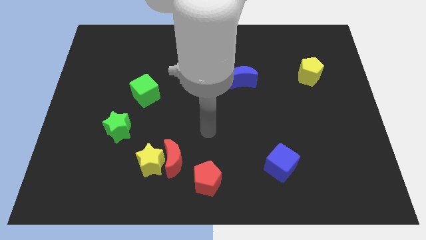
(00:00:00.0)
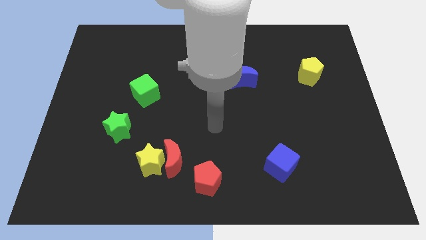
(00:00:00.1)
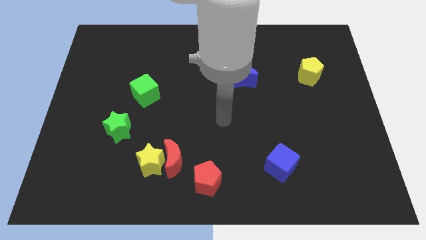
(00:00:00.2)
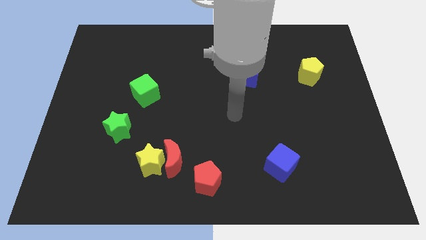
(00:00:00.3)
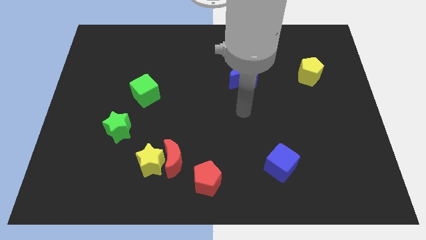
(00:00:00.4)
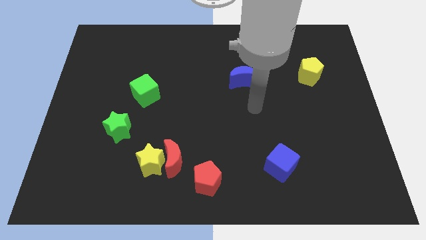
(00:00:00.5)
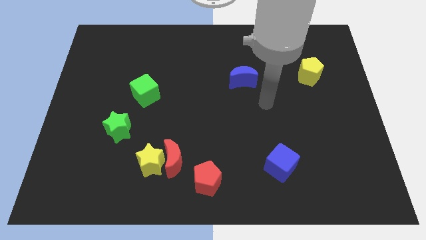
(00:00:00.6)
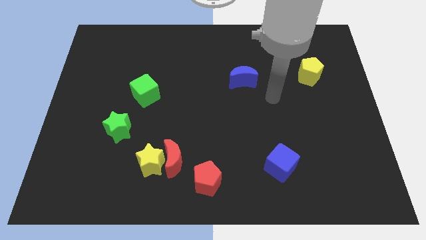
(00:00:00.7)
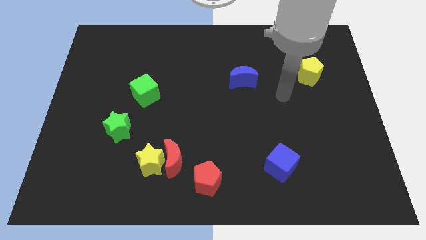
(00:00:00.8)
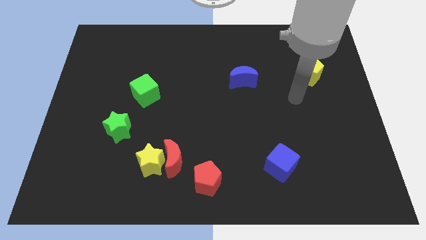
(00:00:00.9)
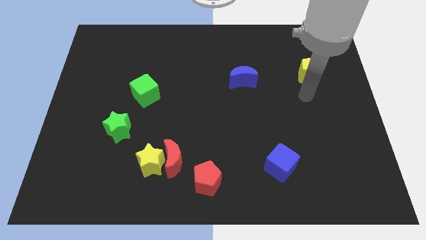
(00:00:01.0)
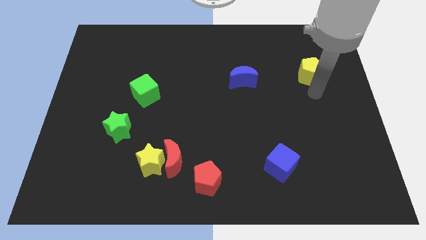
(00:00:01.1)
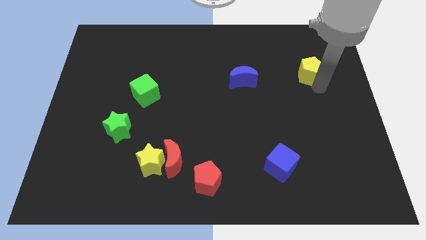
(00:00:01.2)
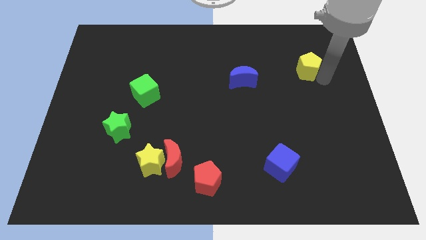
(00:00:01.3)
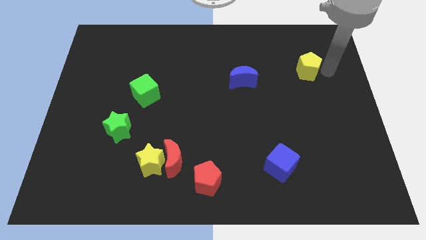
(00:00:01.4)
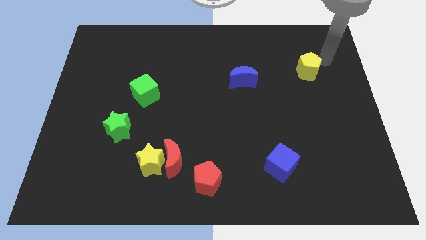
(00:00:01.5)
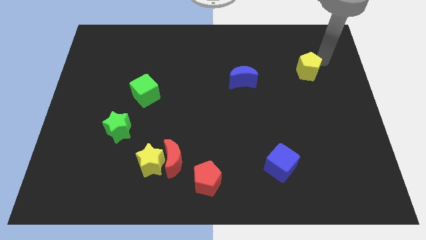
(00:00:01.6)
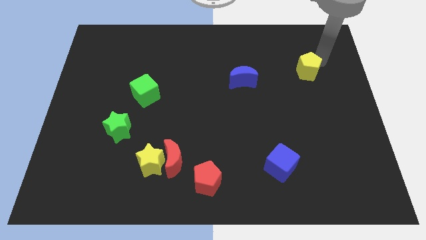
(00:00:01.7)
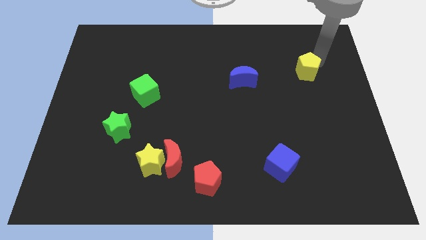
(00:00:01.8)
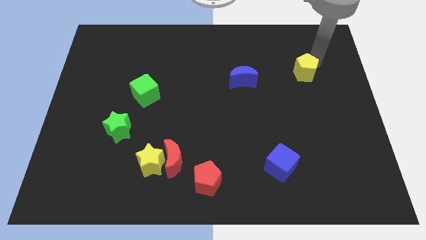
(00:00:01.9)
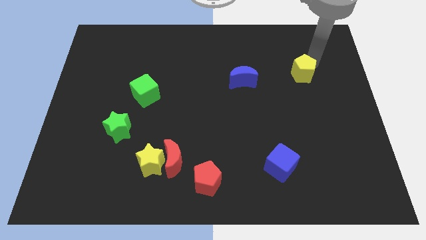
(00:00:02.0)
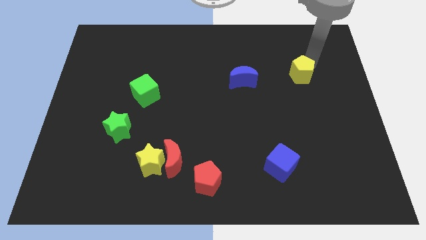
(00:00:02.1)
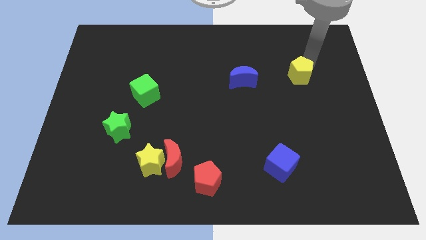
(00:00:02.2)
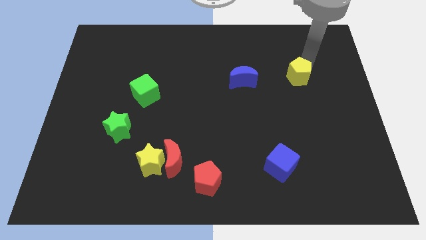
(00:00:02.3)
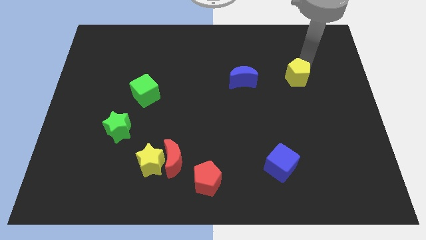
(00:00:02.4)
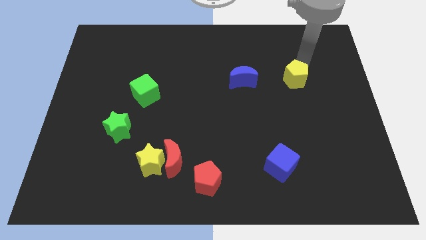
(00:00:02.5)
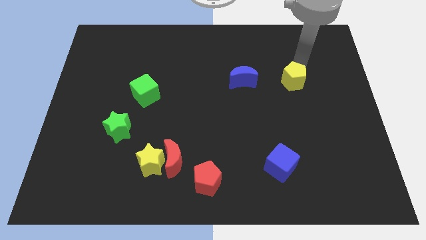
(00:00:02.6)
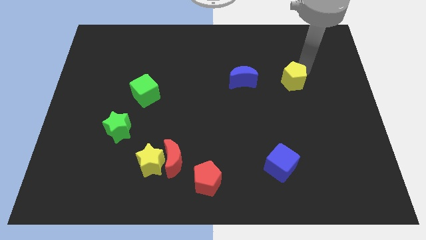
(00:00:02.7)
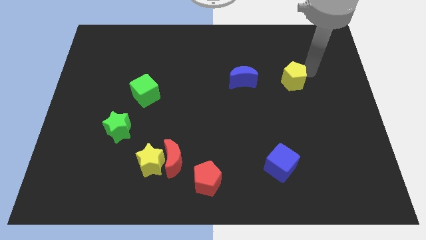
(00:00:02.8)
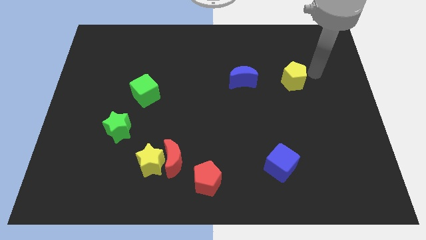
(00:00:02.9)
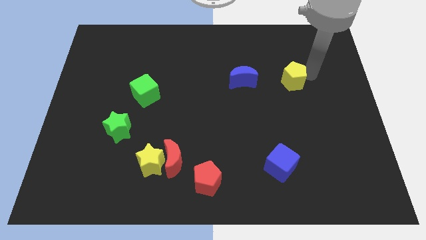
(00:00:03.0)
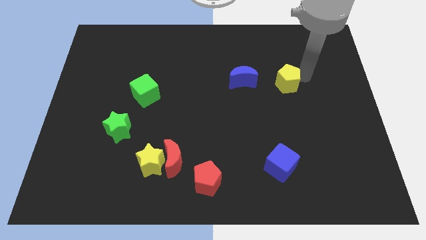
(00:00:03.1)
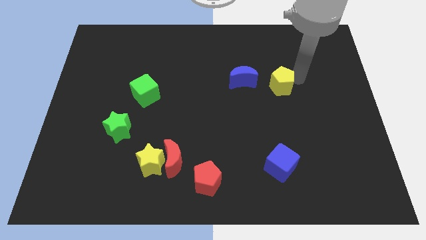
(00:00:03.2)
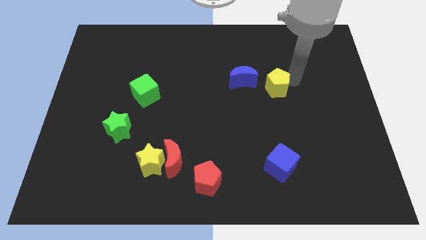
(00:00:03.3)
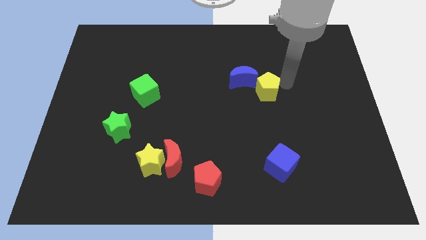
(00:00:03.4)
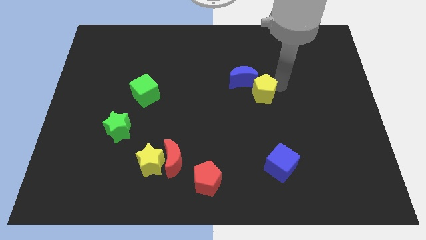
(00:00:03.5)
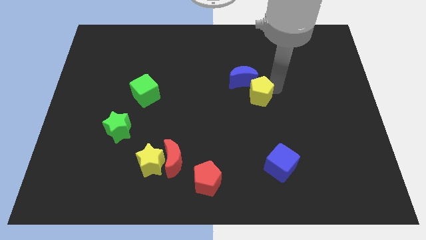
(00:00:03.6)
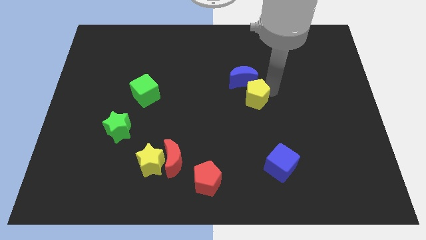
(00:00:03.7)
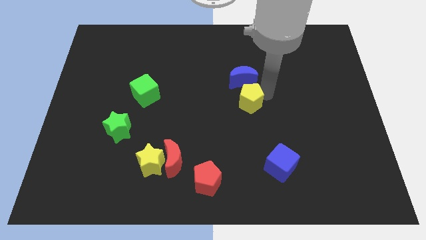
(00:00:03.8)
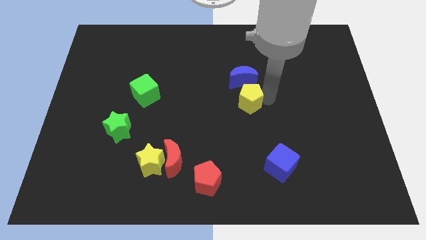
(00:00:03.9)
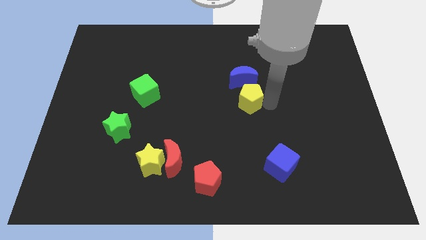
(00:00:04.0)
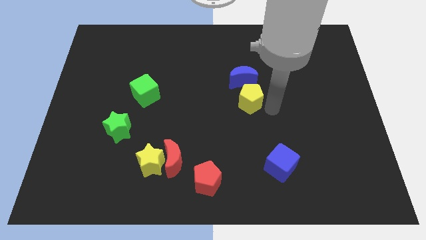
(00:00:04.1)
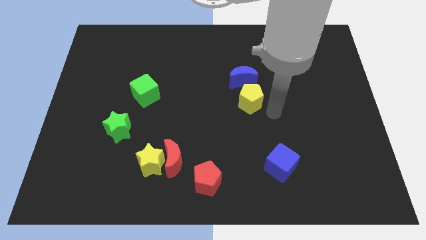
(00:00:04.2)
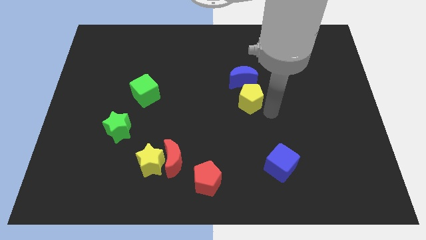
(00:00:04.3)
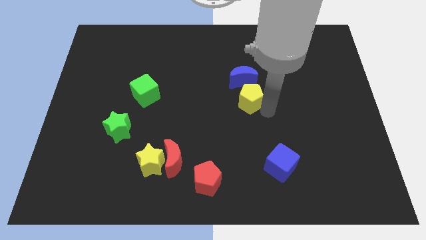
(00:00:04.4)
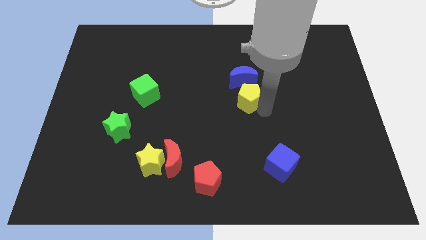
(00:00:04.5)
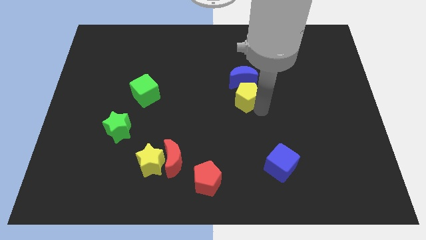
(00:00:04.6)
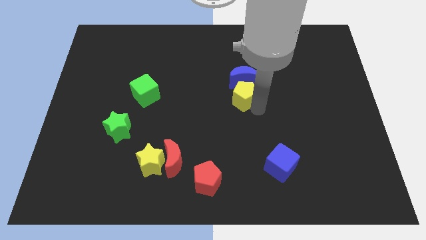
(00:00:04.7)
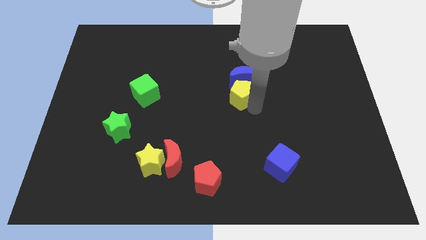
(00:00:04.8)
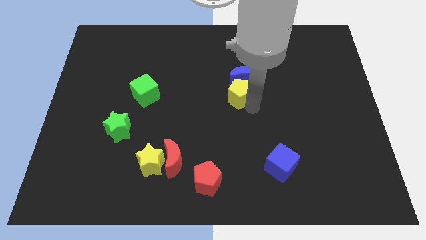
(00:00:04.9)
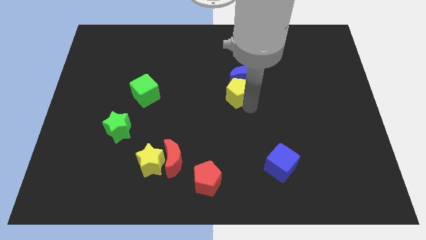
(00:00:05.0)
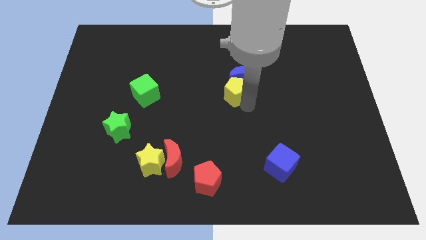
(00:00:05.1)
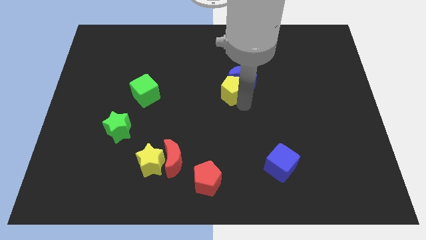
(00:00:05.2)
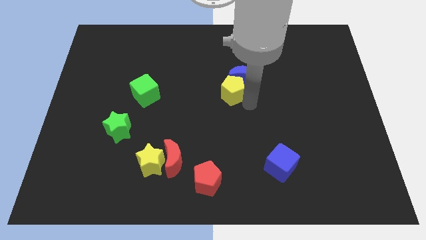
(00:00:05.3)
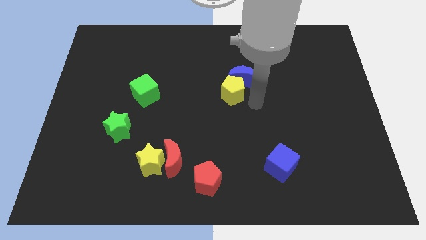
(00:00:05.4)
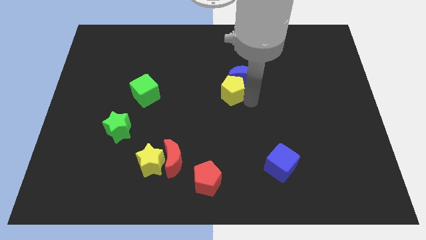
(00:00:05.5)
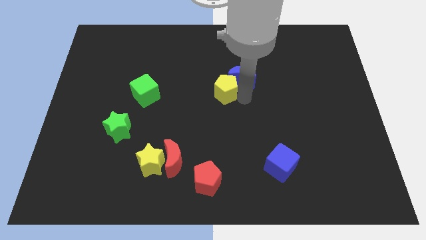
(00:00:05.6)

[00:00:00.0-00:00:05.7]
slide the yellow pentagon to the left

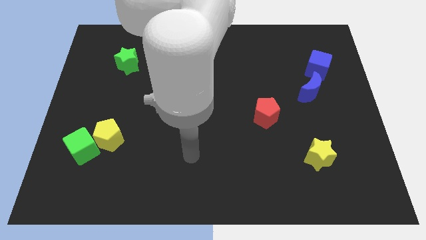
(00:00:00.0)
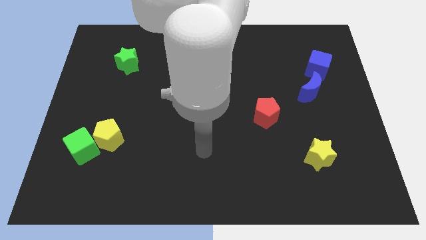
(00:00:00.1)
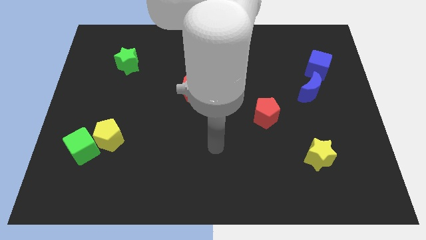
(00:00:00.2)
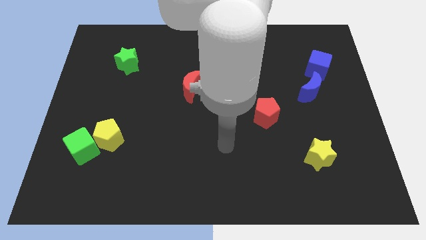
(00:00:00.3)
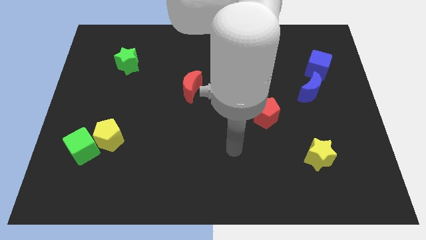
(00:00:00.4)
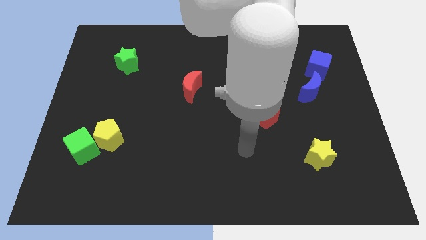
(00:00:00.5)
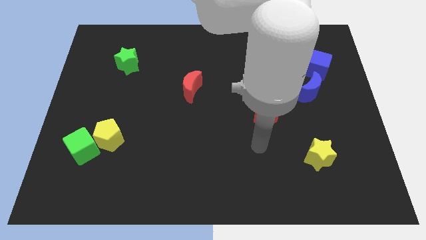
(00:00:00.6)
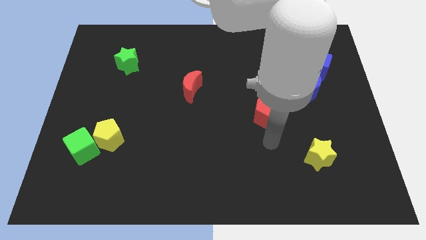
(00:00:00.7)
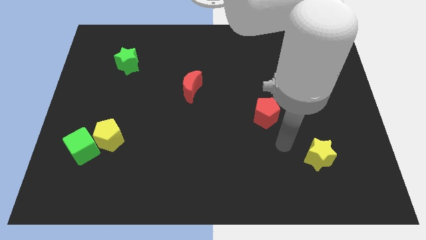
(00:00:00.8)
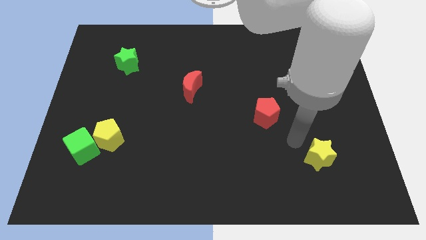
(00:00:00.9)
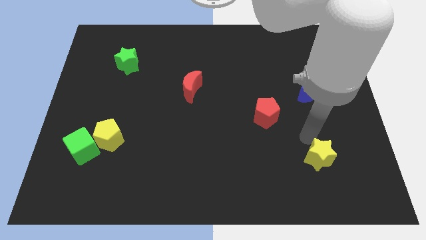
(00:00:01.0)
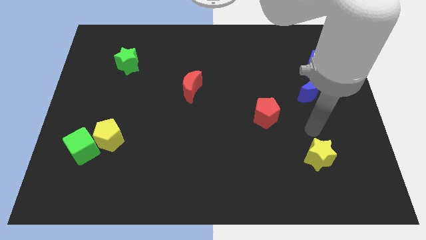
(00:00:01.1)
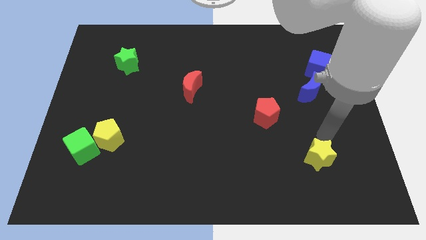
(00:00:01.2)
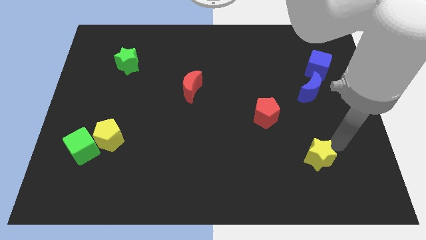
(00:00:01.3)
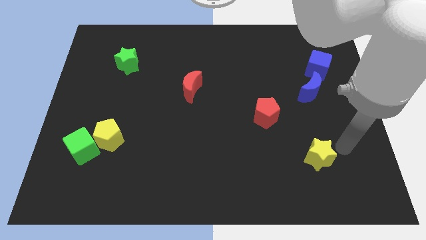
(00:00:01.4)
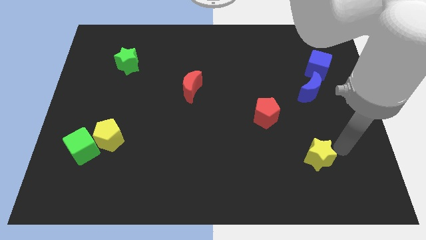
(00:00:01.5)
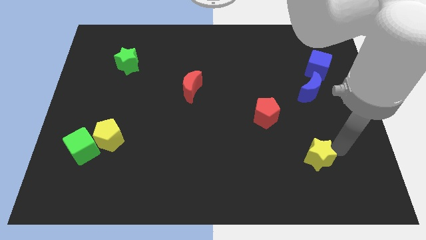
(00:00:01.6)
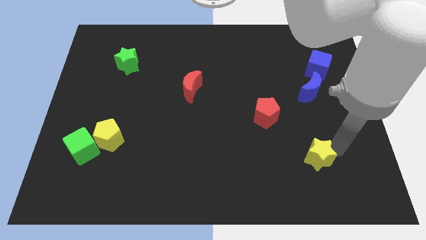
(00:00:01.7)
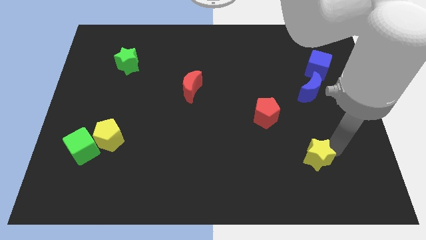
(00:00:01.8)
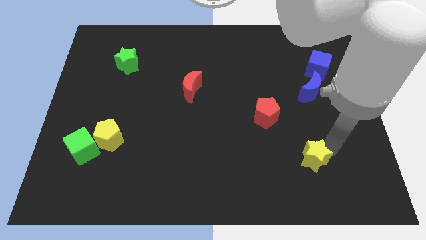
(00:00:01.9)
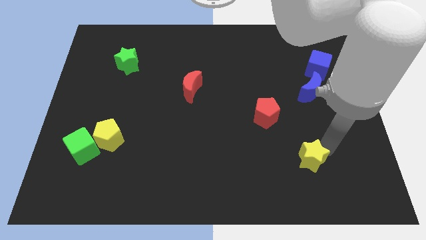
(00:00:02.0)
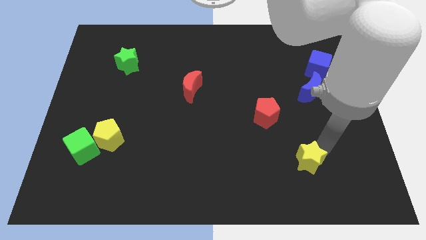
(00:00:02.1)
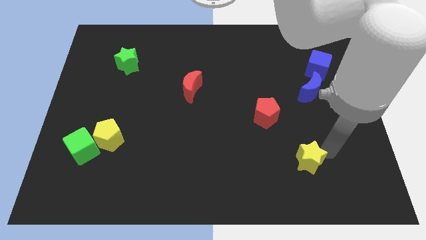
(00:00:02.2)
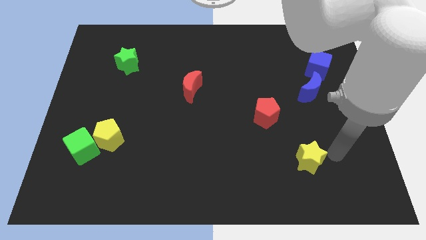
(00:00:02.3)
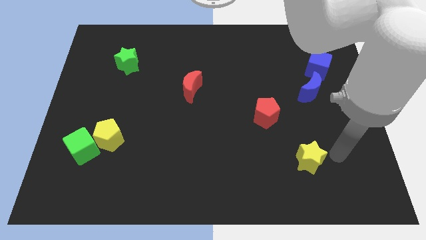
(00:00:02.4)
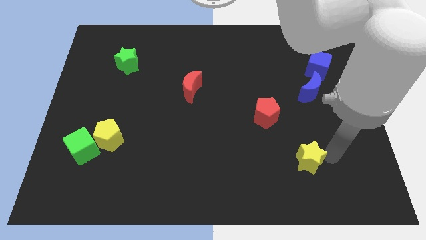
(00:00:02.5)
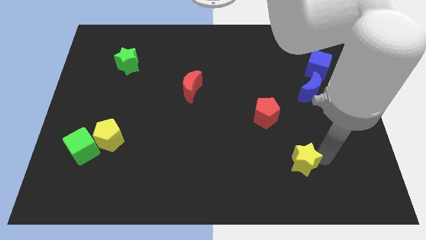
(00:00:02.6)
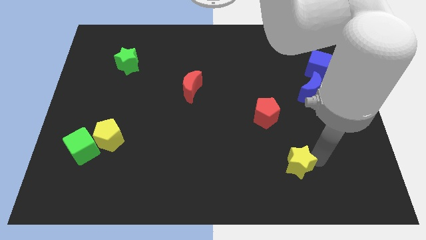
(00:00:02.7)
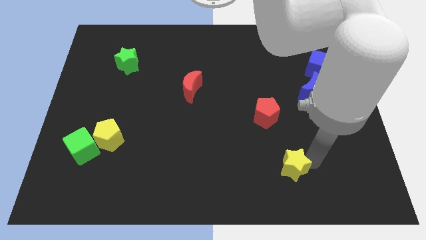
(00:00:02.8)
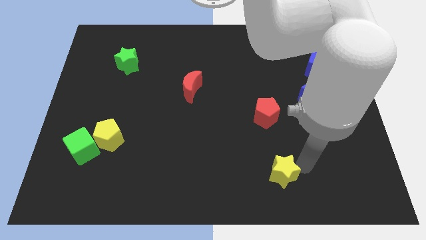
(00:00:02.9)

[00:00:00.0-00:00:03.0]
move the yellow star left a little
